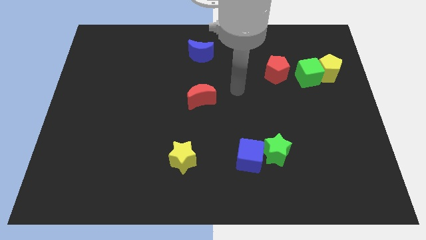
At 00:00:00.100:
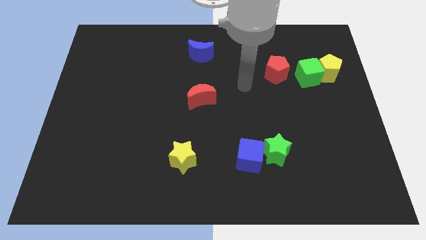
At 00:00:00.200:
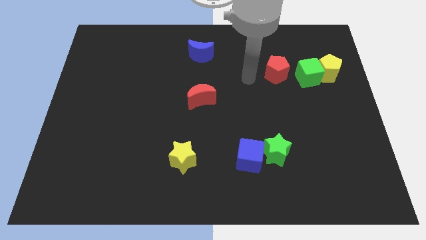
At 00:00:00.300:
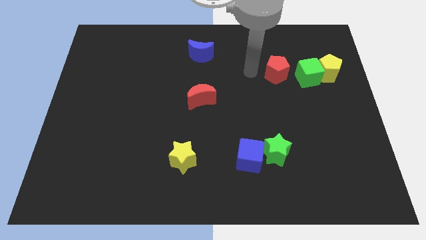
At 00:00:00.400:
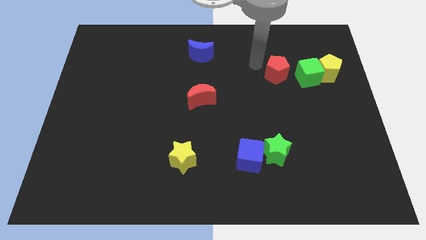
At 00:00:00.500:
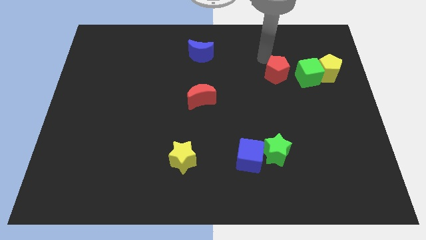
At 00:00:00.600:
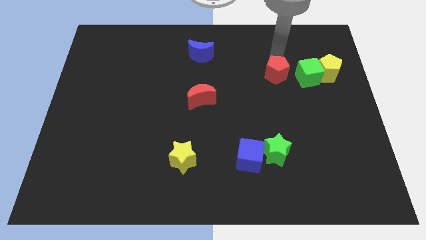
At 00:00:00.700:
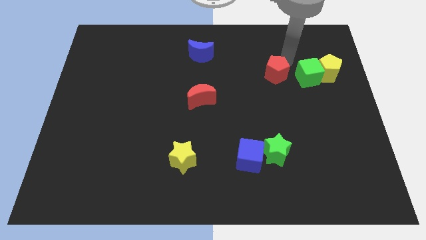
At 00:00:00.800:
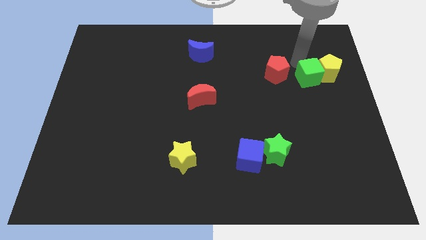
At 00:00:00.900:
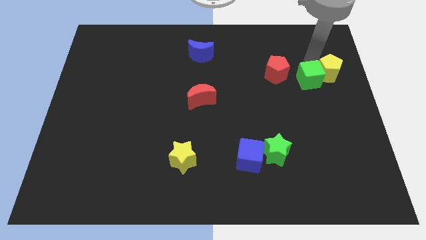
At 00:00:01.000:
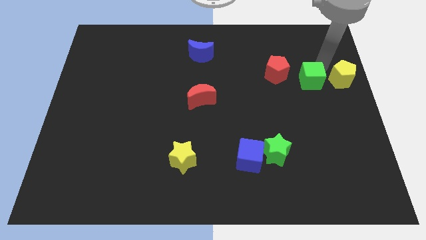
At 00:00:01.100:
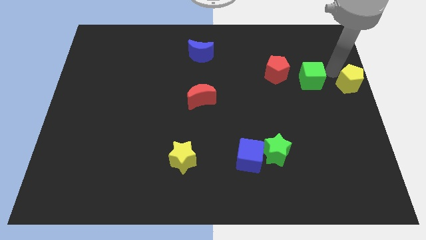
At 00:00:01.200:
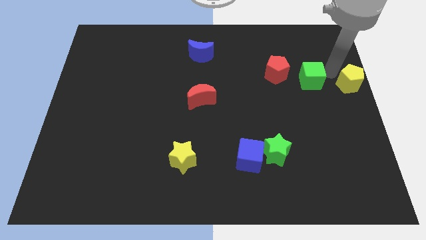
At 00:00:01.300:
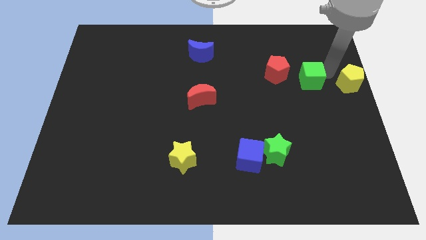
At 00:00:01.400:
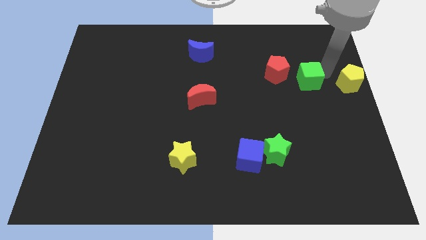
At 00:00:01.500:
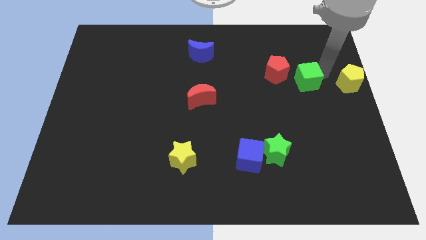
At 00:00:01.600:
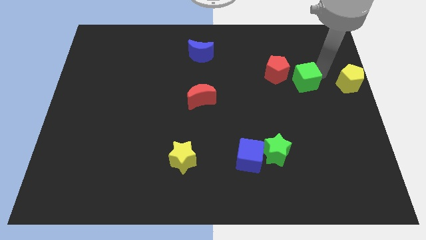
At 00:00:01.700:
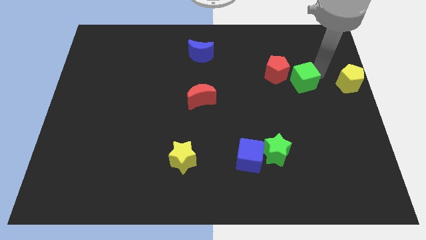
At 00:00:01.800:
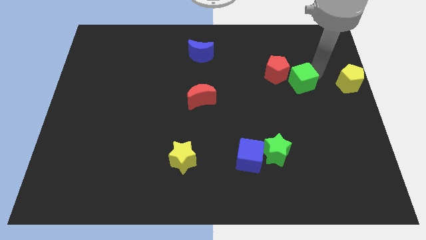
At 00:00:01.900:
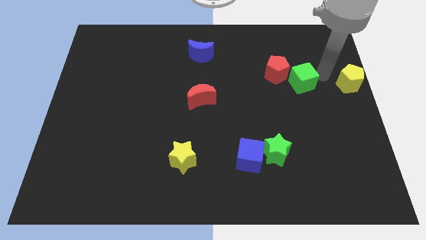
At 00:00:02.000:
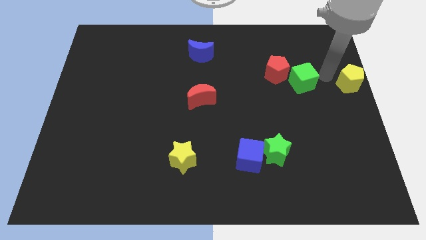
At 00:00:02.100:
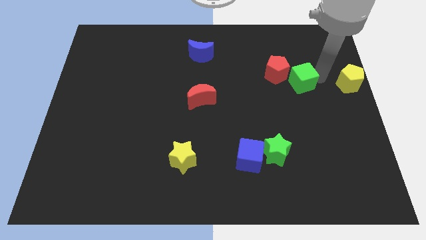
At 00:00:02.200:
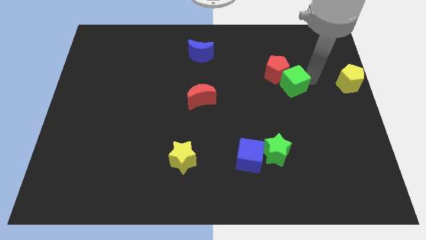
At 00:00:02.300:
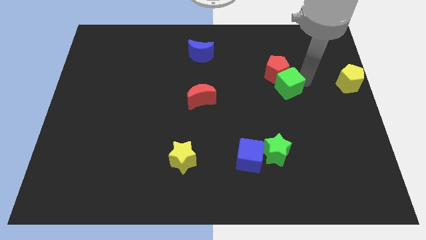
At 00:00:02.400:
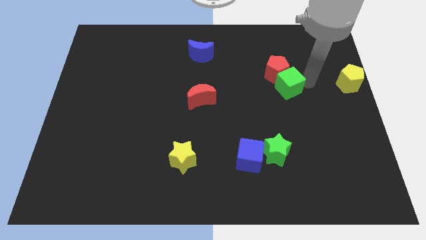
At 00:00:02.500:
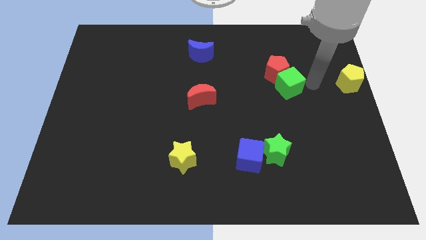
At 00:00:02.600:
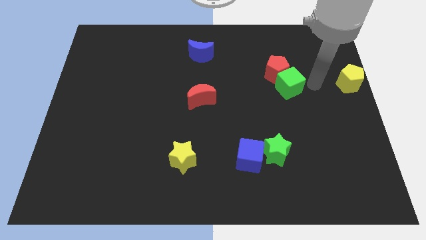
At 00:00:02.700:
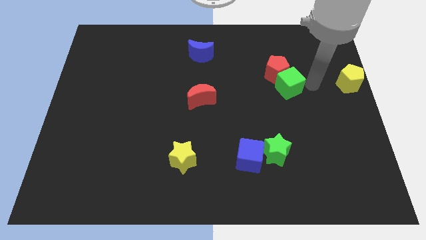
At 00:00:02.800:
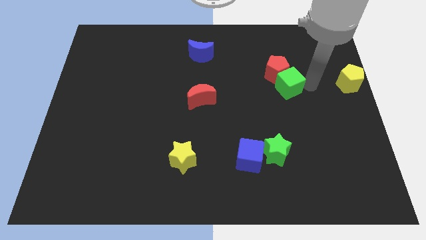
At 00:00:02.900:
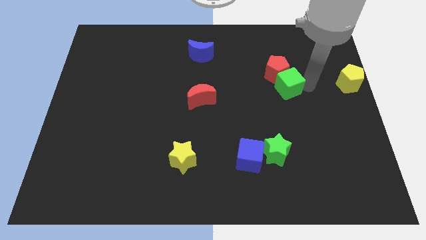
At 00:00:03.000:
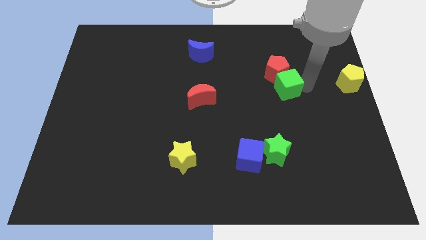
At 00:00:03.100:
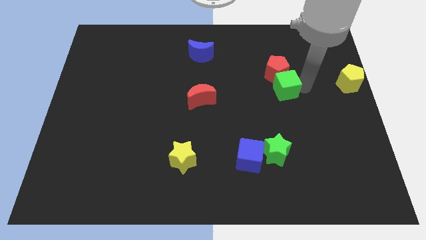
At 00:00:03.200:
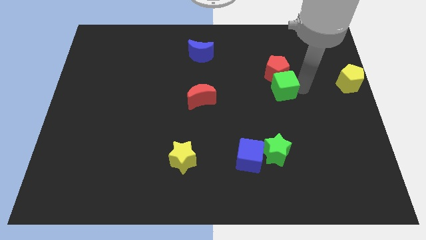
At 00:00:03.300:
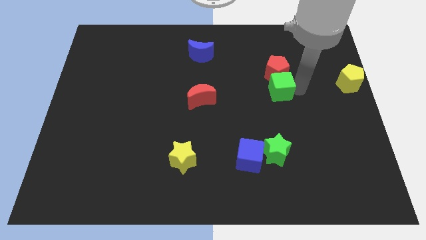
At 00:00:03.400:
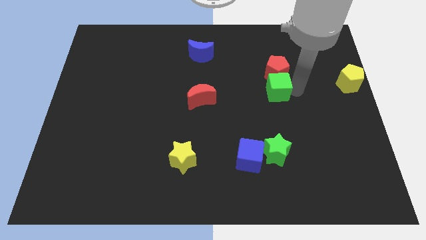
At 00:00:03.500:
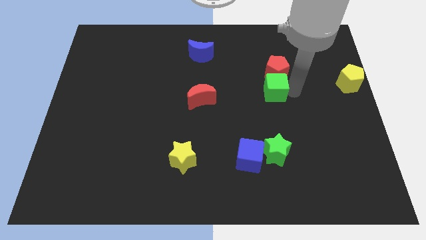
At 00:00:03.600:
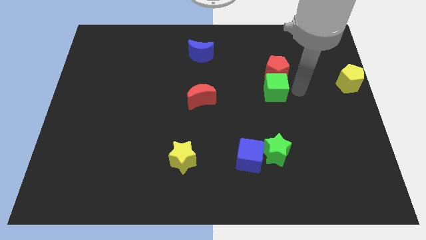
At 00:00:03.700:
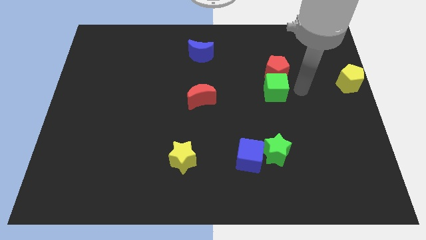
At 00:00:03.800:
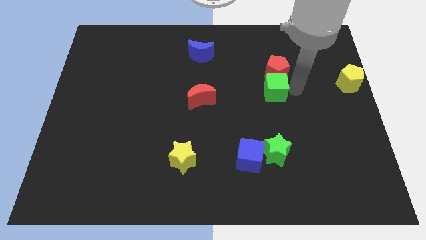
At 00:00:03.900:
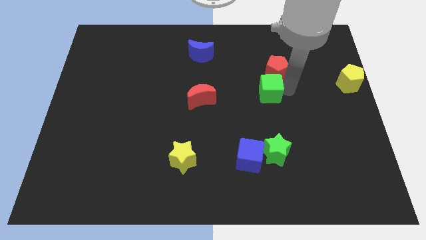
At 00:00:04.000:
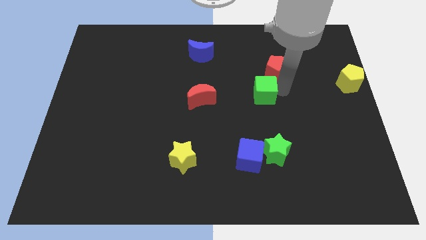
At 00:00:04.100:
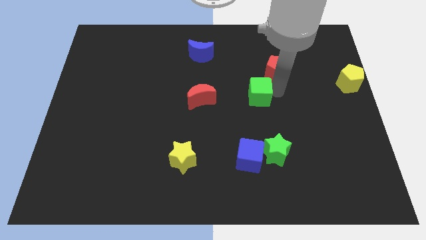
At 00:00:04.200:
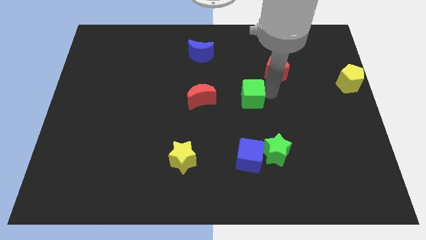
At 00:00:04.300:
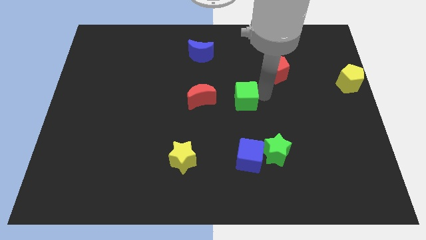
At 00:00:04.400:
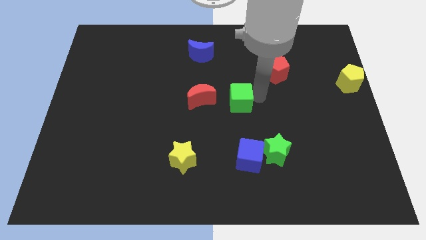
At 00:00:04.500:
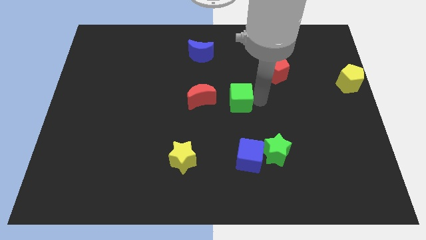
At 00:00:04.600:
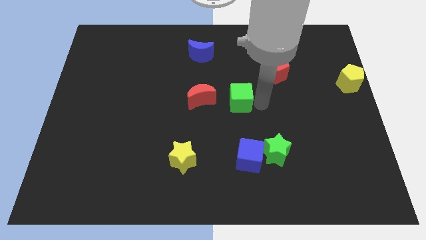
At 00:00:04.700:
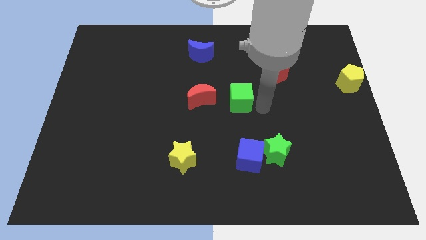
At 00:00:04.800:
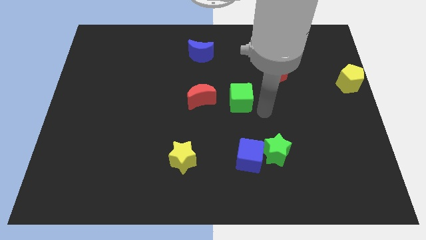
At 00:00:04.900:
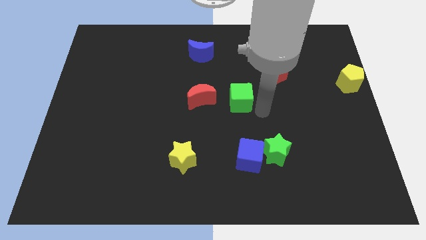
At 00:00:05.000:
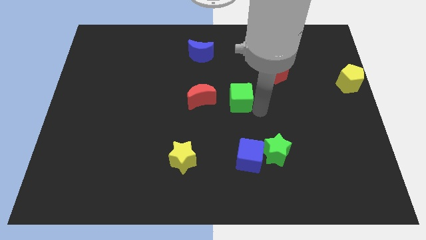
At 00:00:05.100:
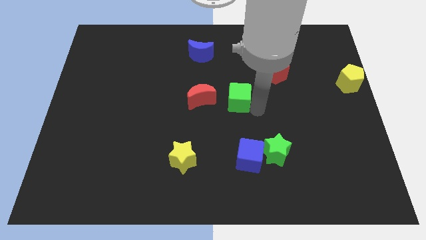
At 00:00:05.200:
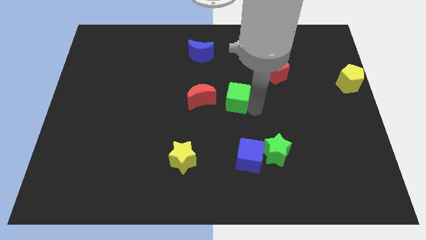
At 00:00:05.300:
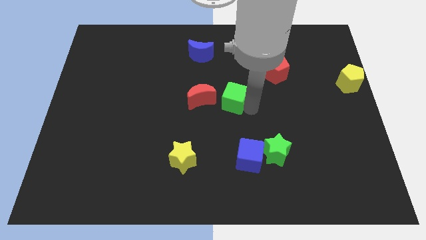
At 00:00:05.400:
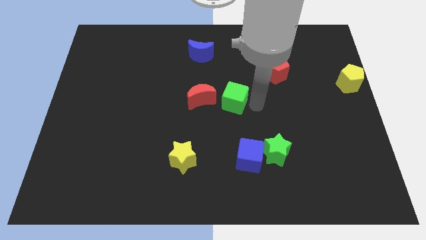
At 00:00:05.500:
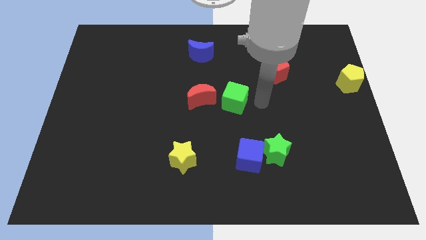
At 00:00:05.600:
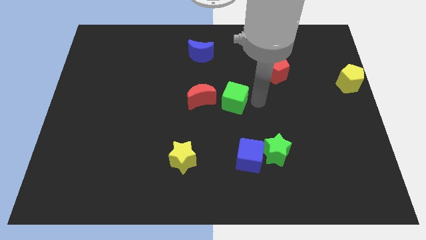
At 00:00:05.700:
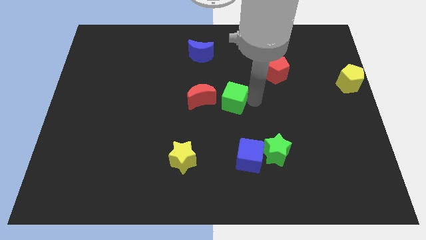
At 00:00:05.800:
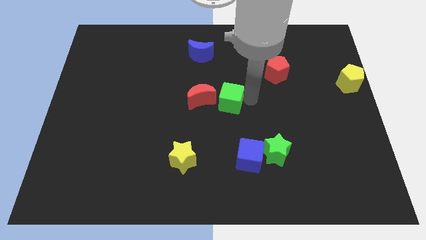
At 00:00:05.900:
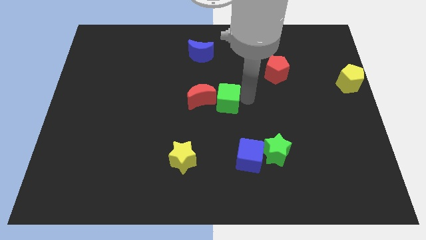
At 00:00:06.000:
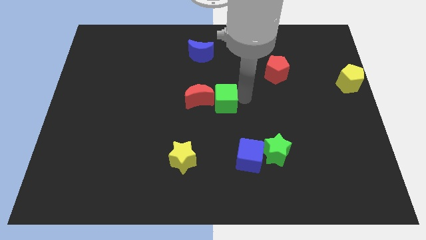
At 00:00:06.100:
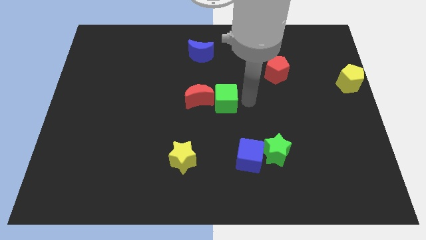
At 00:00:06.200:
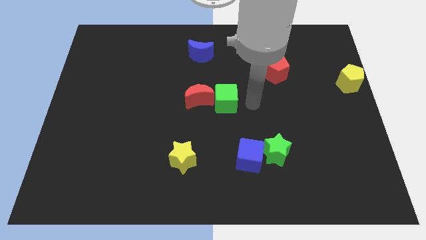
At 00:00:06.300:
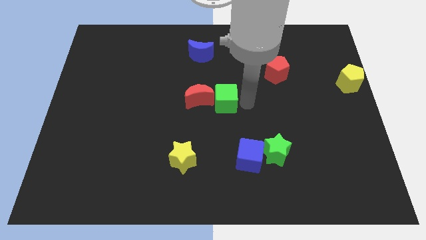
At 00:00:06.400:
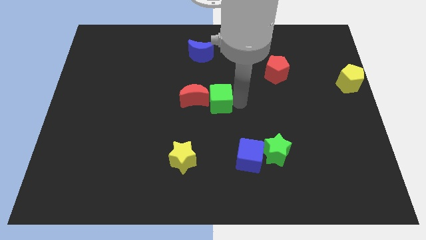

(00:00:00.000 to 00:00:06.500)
slide the green cube next to the red moon
